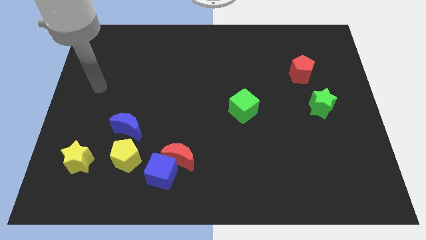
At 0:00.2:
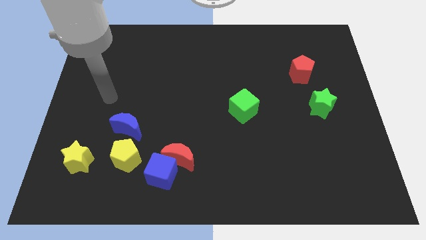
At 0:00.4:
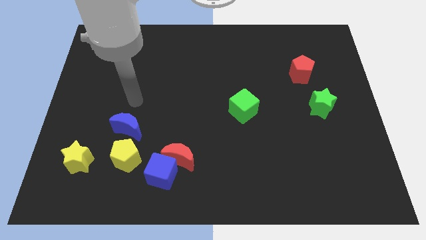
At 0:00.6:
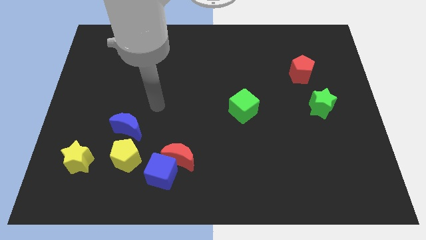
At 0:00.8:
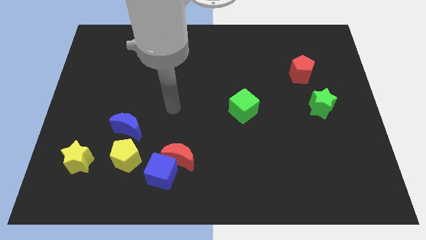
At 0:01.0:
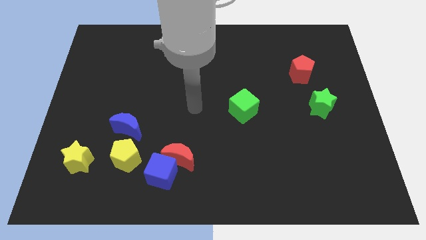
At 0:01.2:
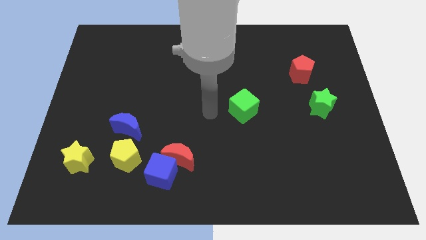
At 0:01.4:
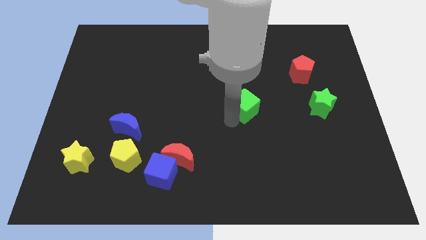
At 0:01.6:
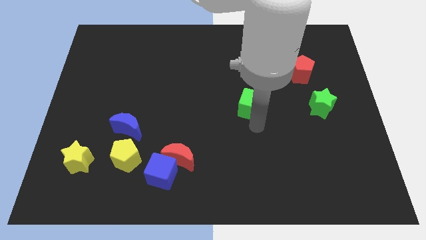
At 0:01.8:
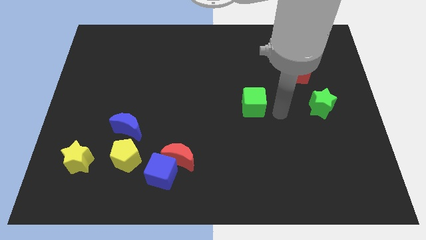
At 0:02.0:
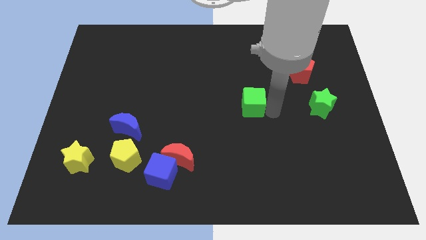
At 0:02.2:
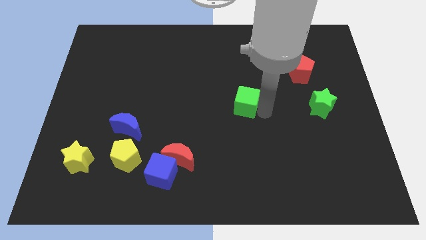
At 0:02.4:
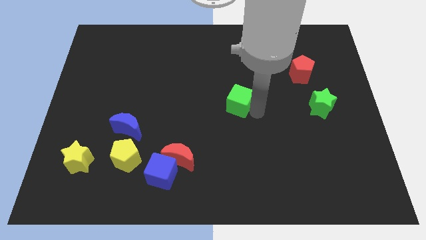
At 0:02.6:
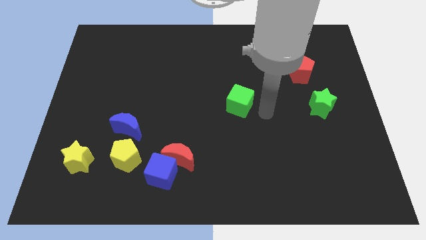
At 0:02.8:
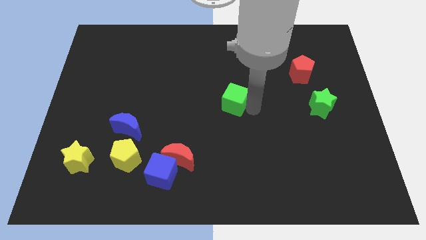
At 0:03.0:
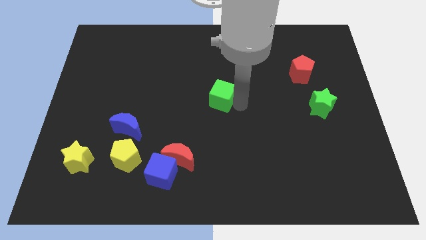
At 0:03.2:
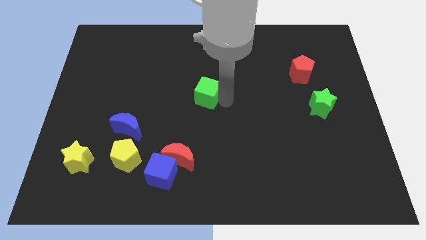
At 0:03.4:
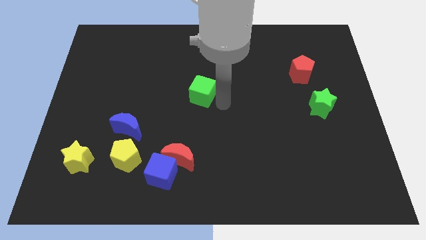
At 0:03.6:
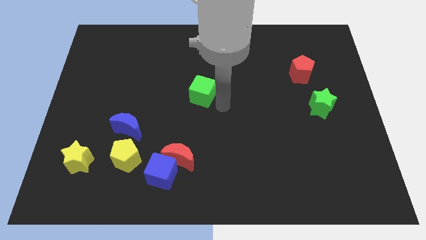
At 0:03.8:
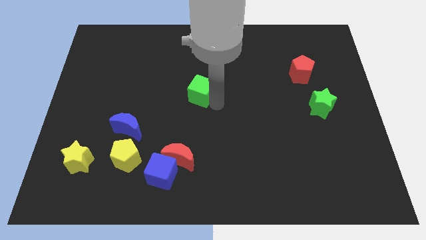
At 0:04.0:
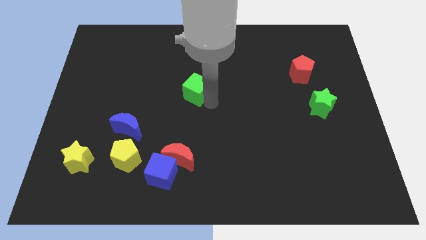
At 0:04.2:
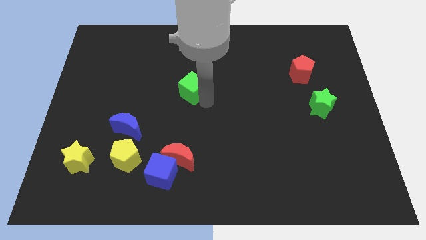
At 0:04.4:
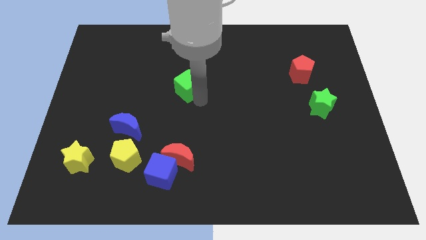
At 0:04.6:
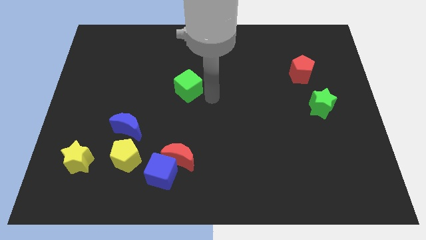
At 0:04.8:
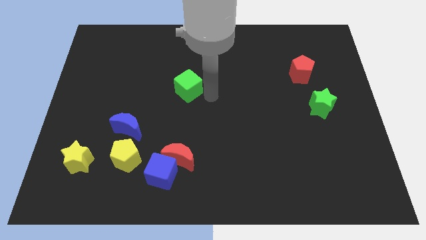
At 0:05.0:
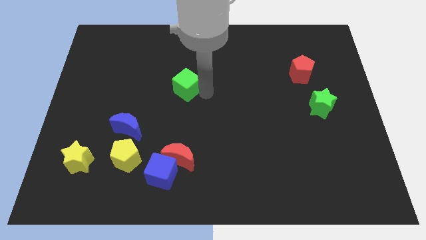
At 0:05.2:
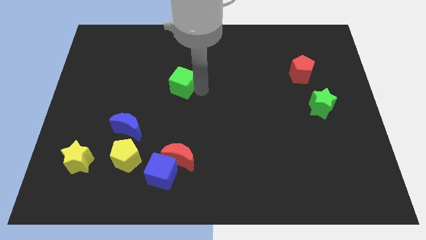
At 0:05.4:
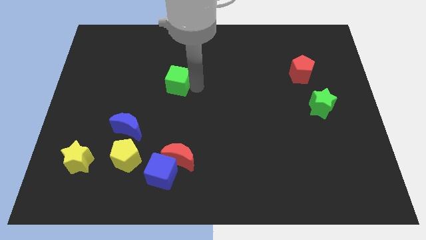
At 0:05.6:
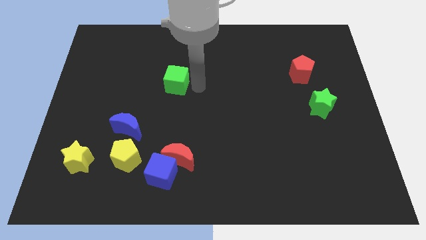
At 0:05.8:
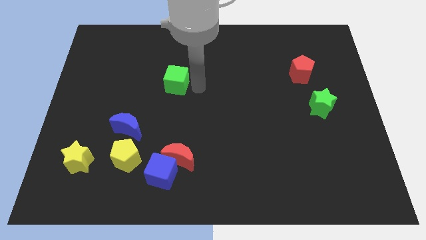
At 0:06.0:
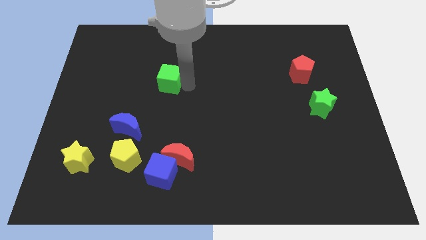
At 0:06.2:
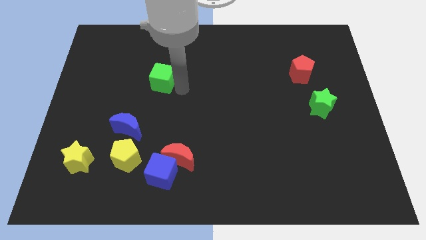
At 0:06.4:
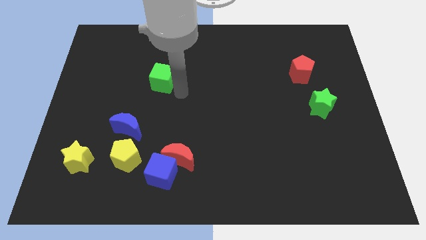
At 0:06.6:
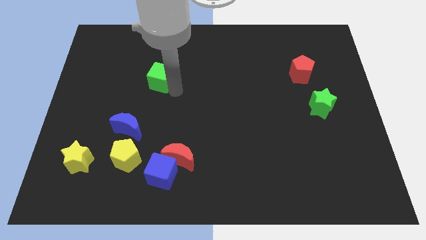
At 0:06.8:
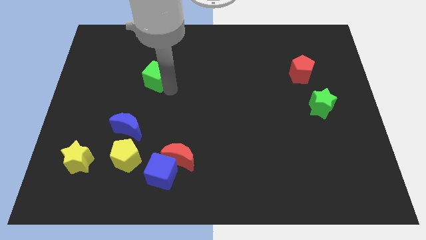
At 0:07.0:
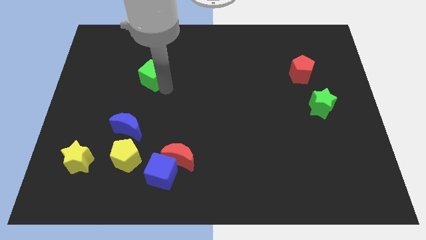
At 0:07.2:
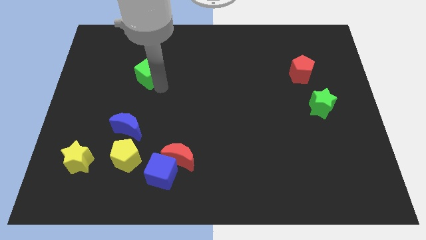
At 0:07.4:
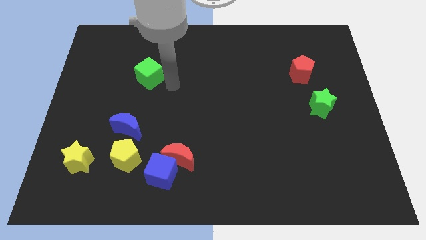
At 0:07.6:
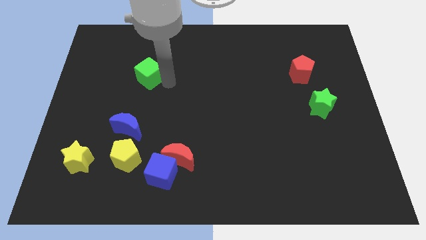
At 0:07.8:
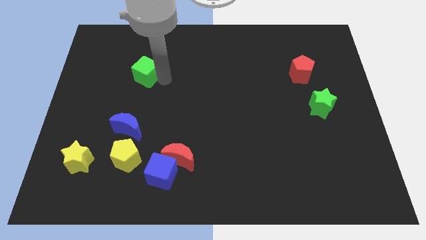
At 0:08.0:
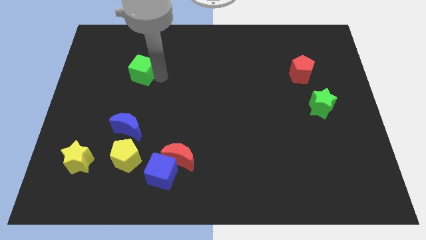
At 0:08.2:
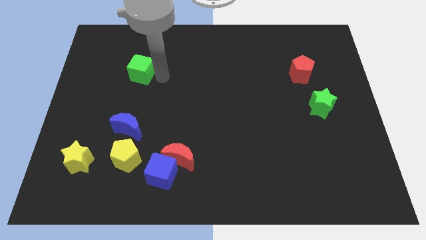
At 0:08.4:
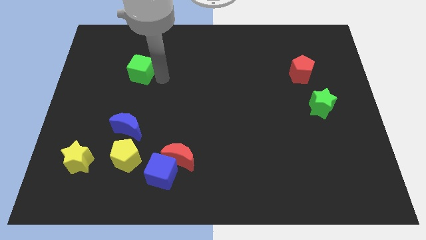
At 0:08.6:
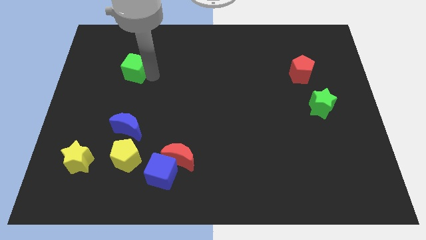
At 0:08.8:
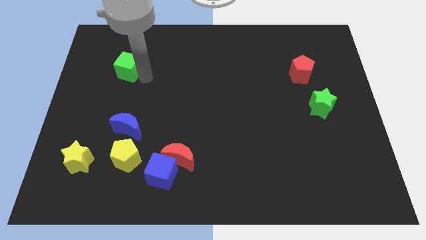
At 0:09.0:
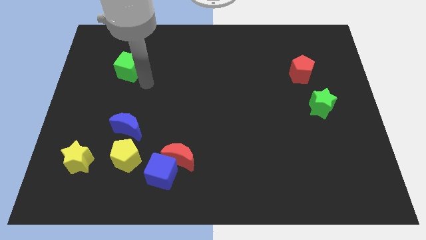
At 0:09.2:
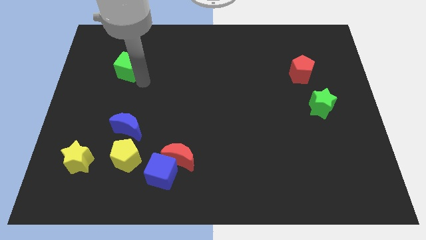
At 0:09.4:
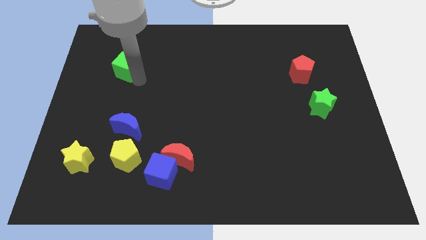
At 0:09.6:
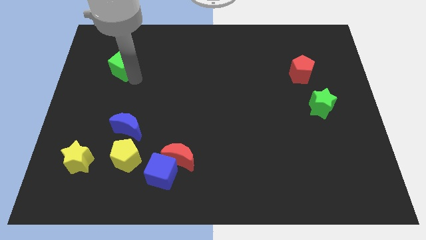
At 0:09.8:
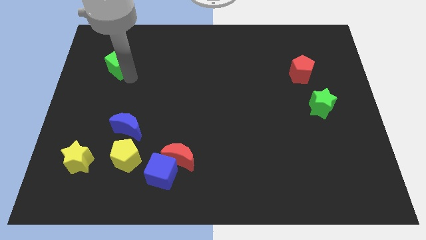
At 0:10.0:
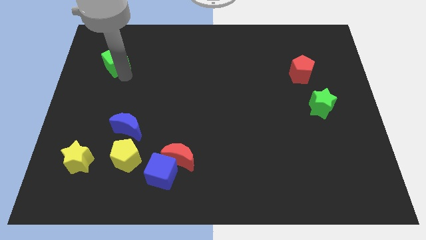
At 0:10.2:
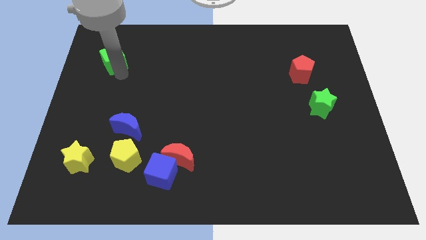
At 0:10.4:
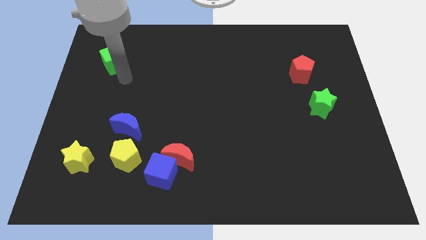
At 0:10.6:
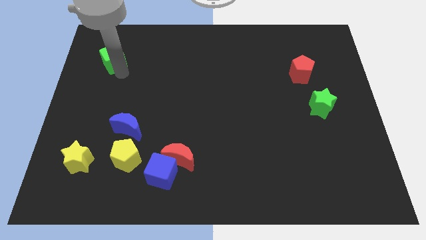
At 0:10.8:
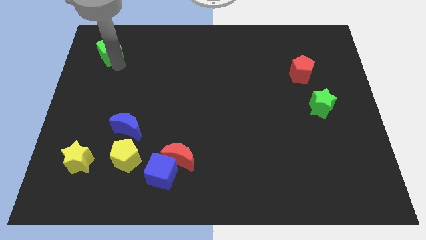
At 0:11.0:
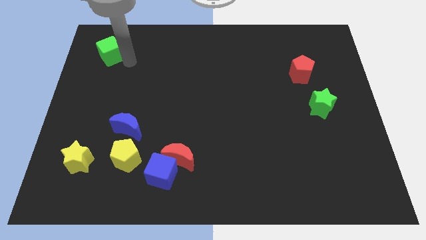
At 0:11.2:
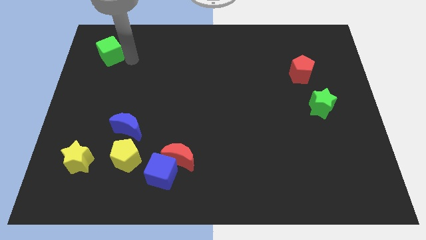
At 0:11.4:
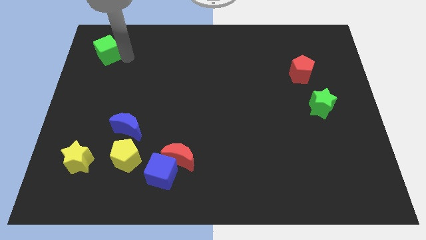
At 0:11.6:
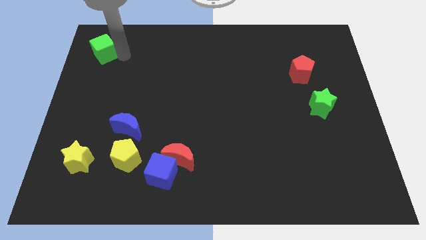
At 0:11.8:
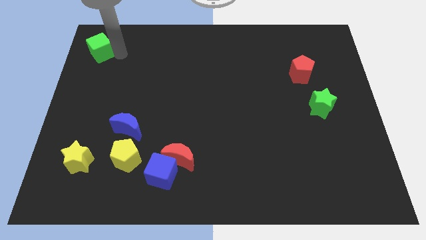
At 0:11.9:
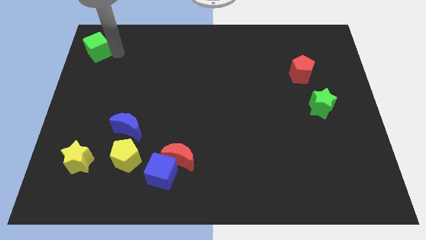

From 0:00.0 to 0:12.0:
slide the green cube to the top left corner
